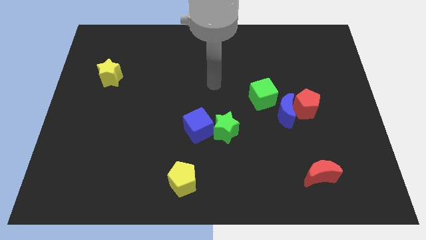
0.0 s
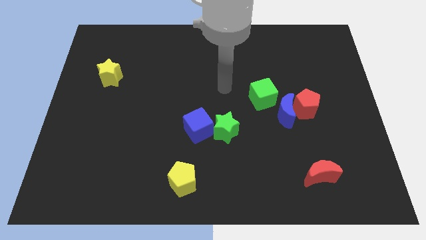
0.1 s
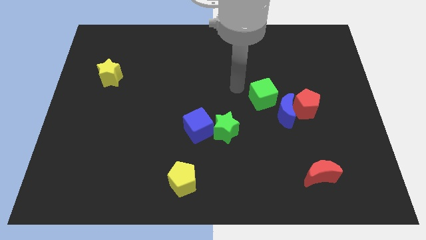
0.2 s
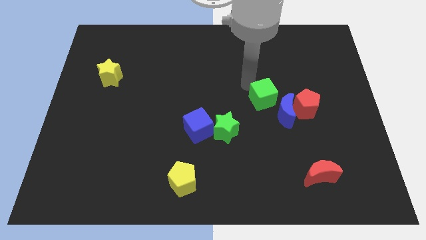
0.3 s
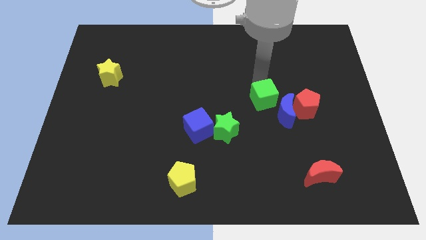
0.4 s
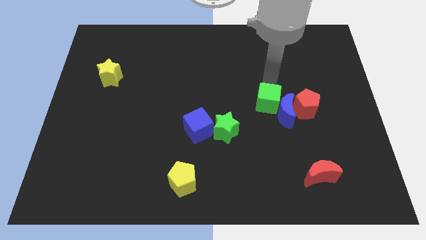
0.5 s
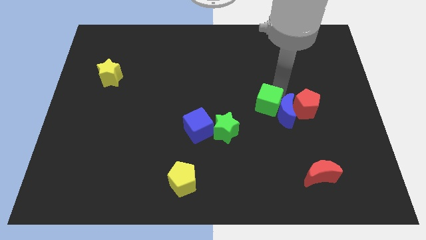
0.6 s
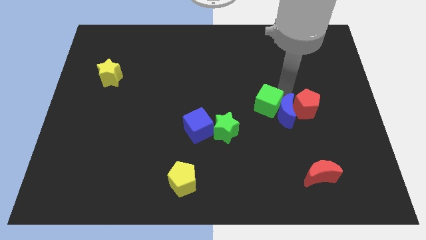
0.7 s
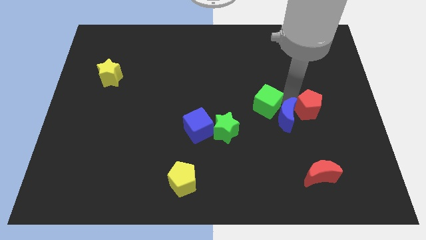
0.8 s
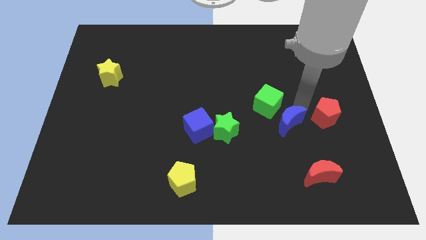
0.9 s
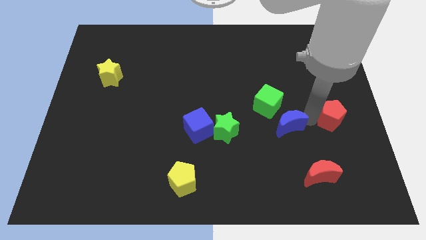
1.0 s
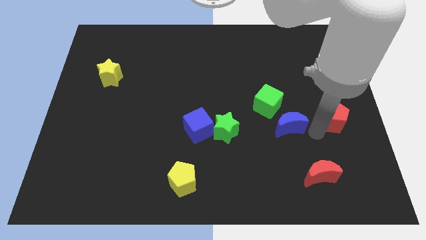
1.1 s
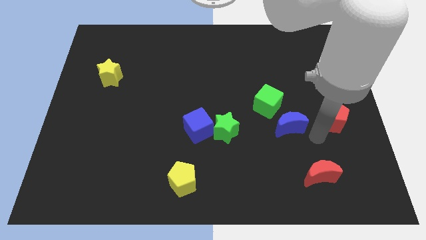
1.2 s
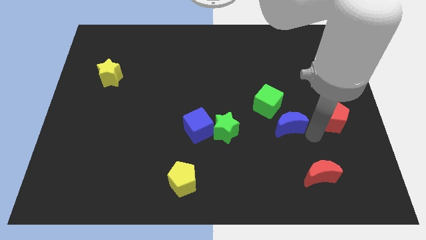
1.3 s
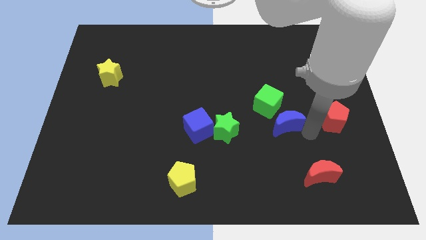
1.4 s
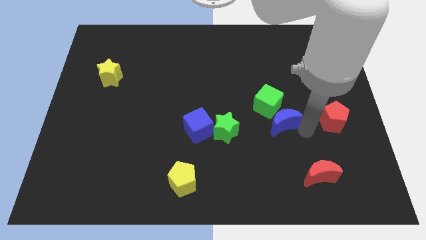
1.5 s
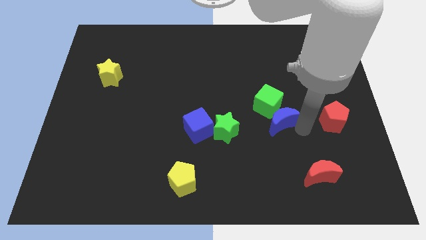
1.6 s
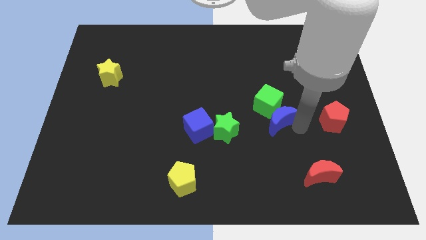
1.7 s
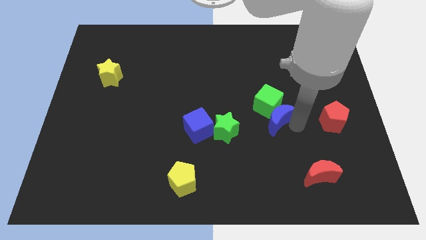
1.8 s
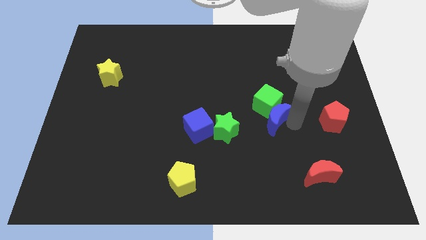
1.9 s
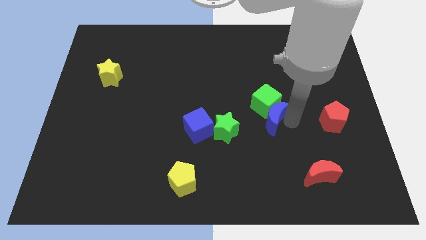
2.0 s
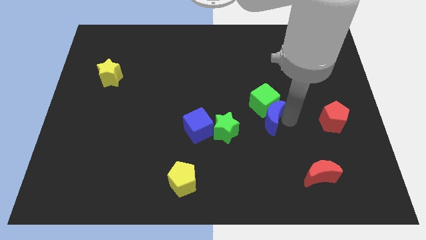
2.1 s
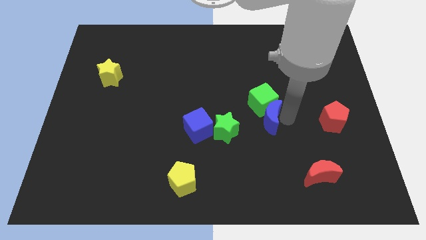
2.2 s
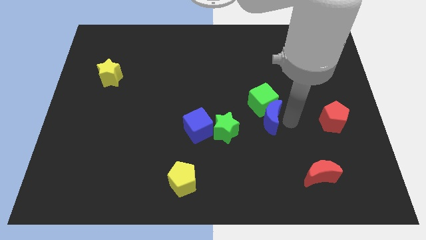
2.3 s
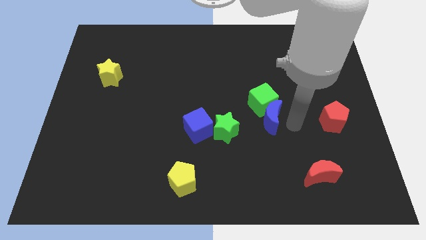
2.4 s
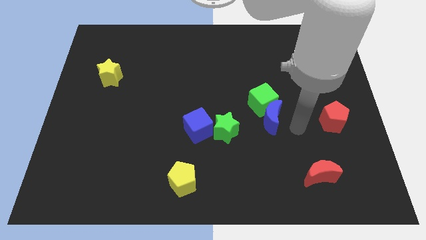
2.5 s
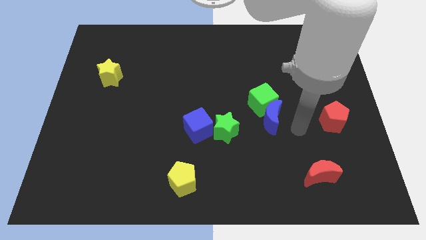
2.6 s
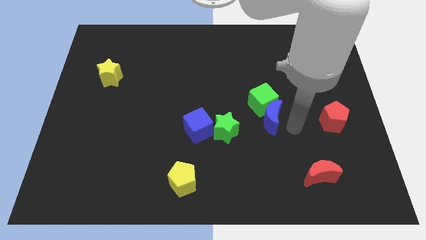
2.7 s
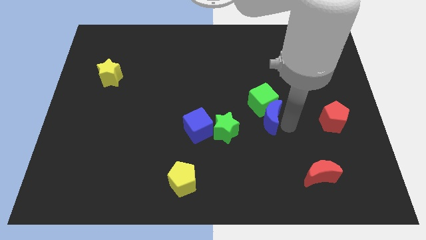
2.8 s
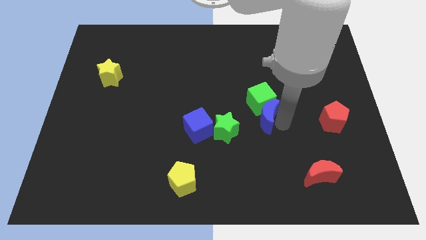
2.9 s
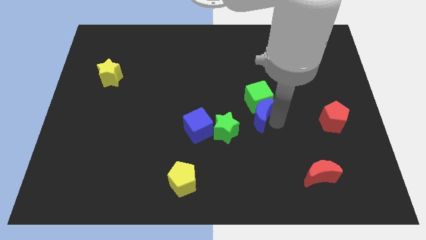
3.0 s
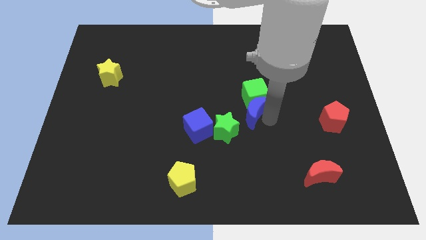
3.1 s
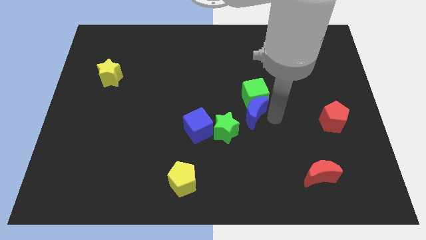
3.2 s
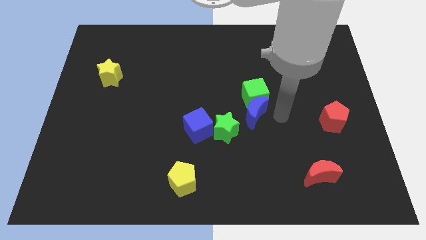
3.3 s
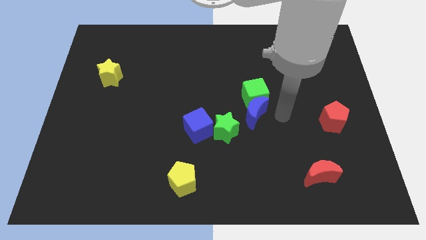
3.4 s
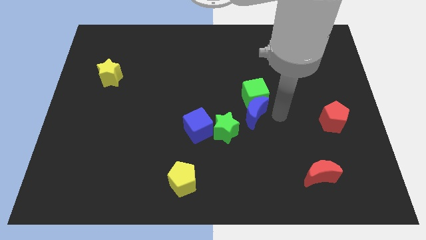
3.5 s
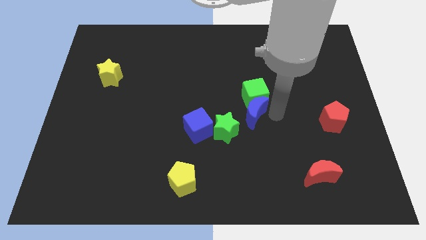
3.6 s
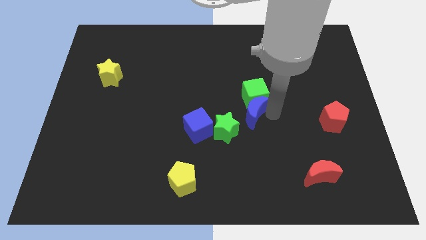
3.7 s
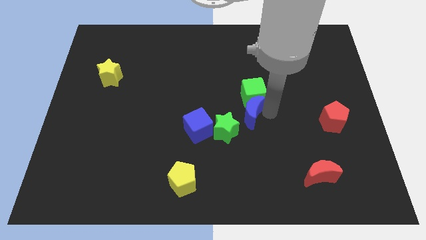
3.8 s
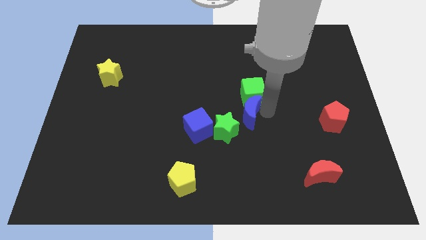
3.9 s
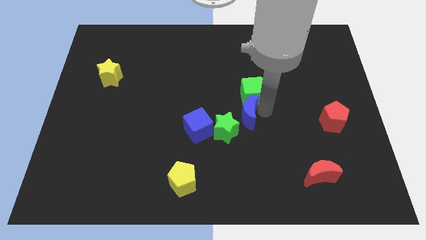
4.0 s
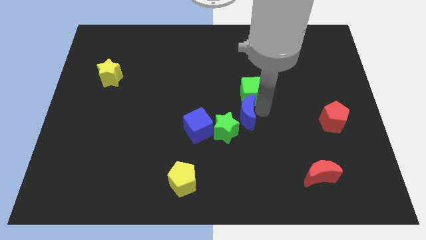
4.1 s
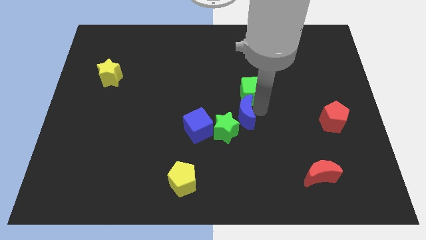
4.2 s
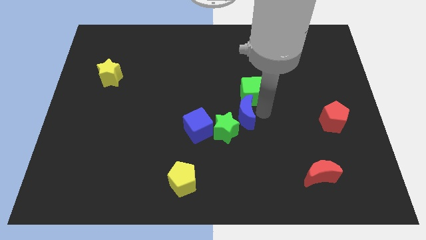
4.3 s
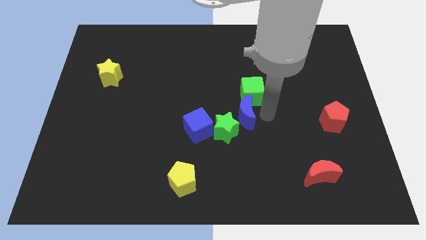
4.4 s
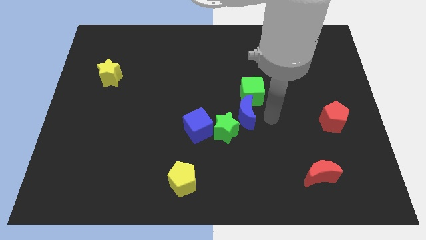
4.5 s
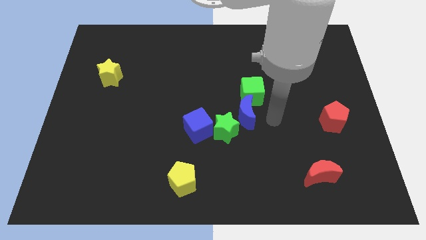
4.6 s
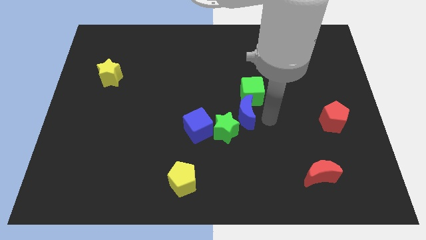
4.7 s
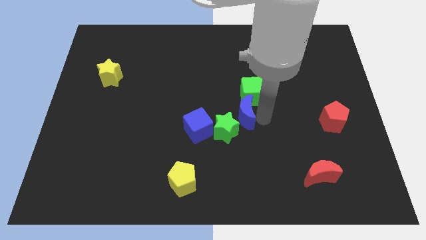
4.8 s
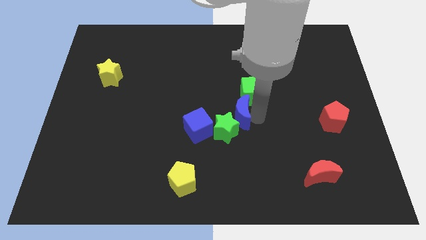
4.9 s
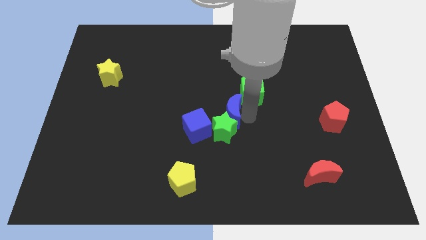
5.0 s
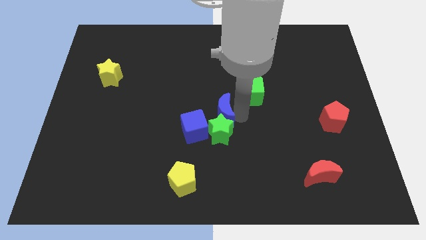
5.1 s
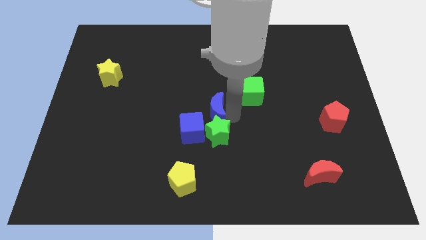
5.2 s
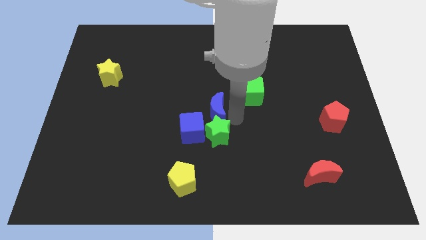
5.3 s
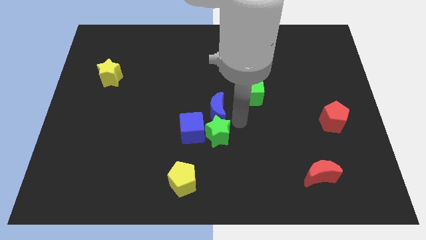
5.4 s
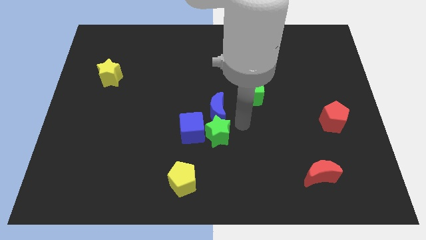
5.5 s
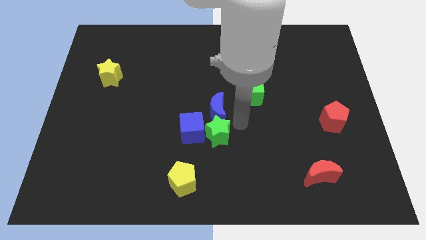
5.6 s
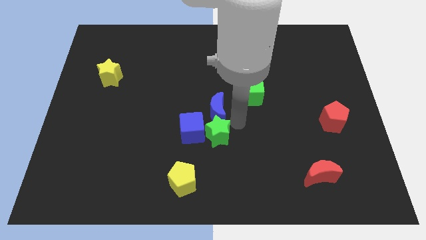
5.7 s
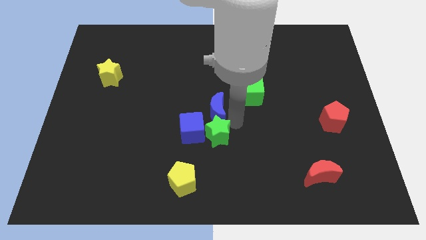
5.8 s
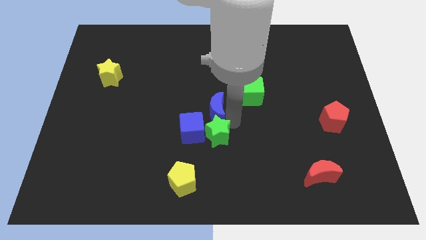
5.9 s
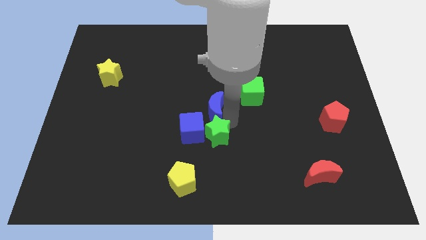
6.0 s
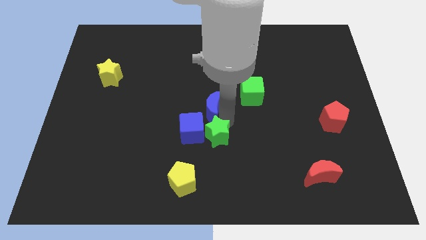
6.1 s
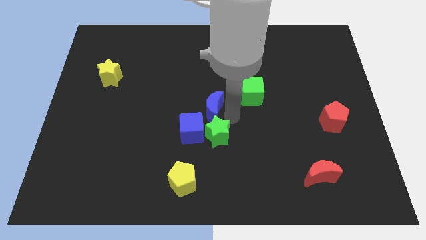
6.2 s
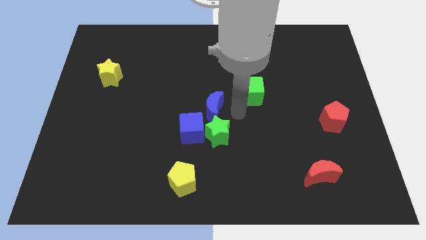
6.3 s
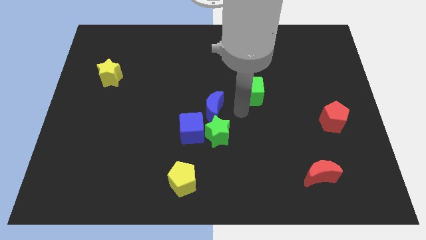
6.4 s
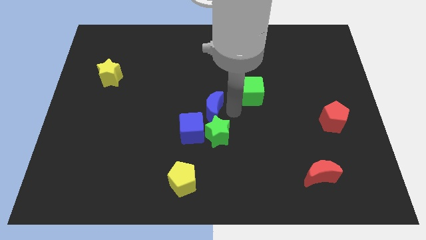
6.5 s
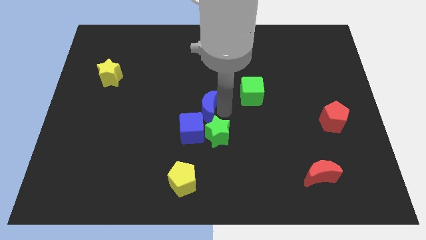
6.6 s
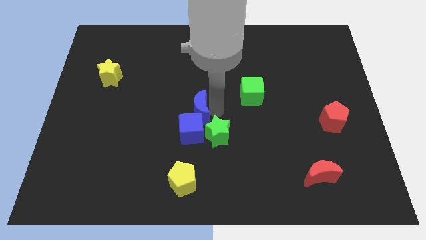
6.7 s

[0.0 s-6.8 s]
slide the blue moon left

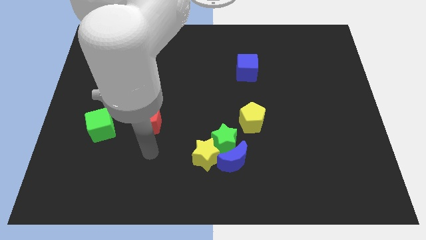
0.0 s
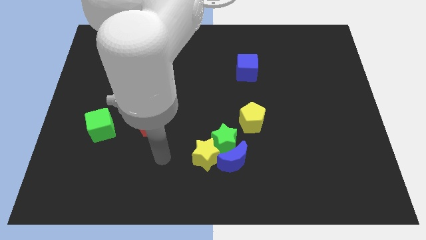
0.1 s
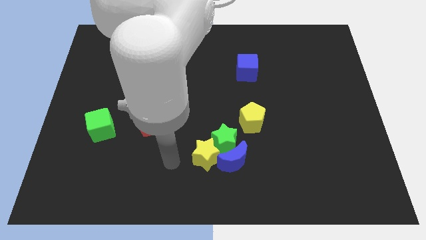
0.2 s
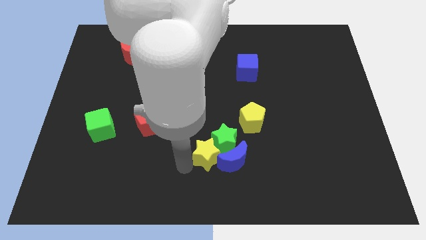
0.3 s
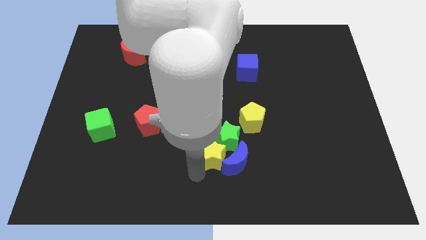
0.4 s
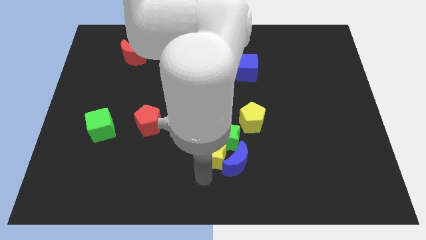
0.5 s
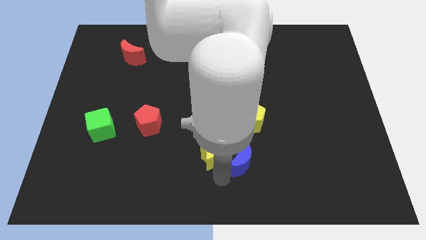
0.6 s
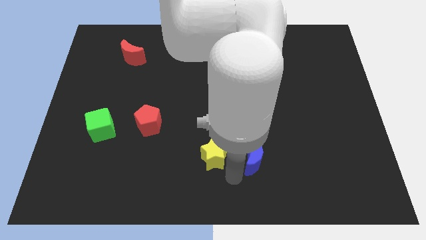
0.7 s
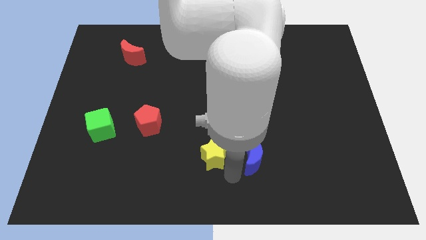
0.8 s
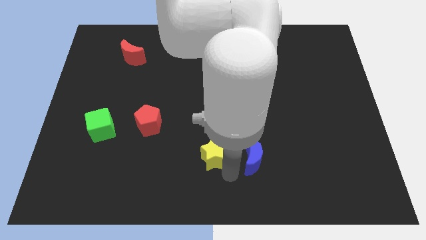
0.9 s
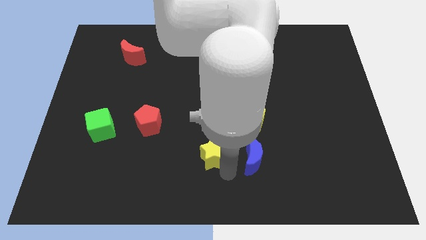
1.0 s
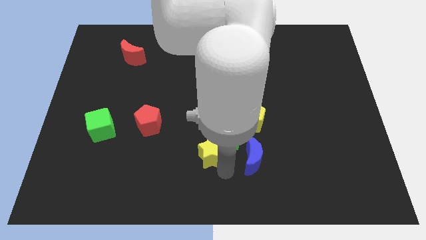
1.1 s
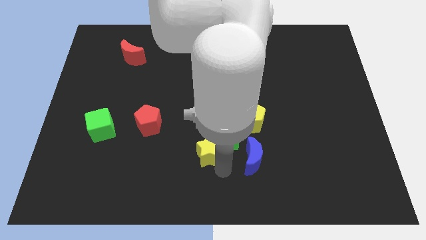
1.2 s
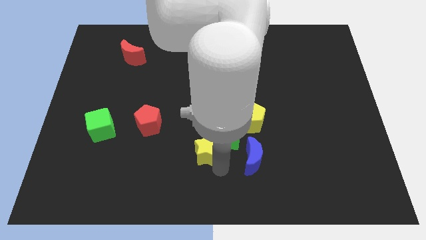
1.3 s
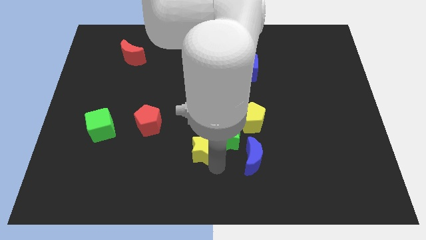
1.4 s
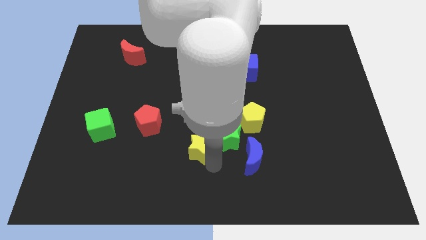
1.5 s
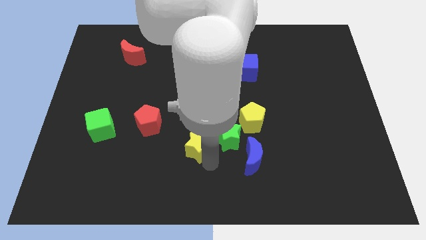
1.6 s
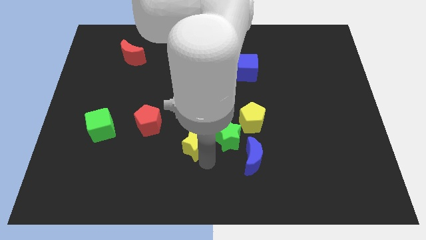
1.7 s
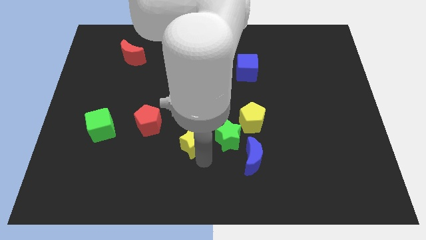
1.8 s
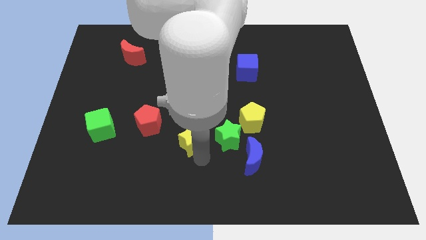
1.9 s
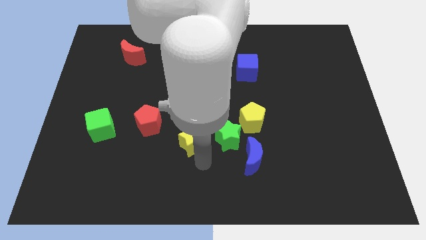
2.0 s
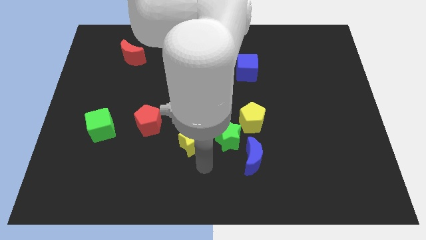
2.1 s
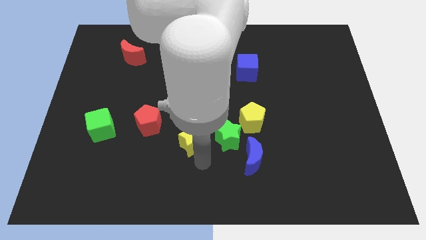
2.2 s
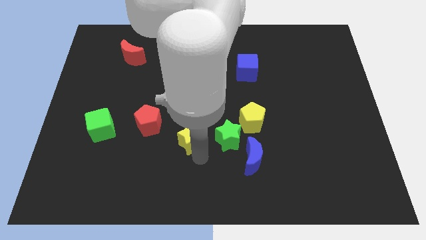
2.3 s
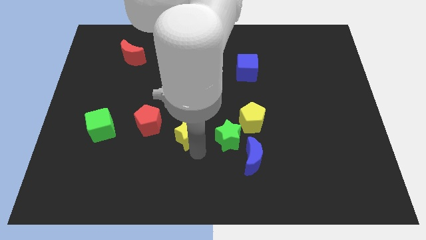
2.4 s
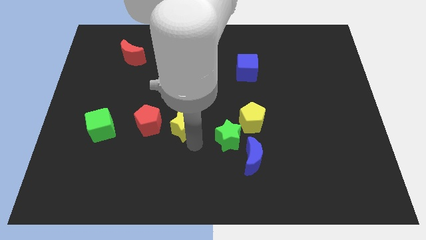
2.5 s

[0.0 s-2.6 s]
slide the yellow star upwards and left a little

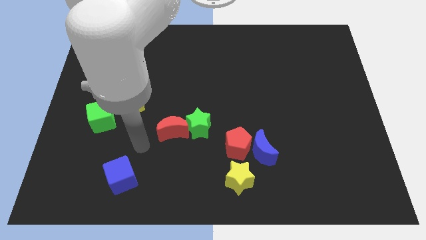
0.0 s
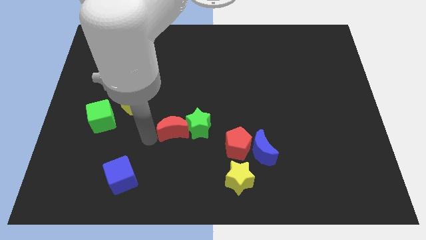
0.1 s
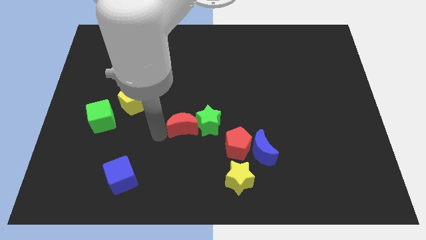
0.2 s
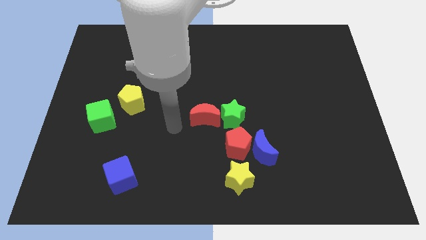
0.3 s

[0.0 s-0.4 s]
slide the green star to the right a little bit
